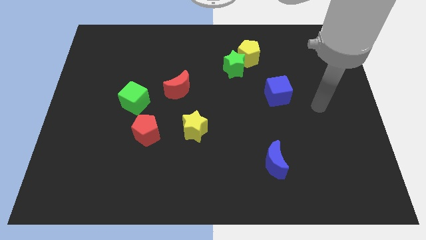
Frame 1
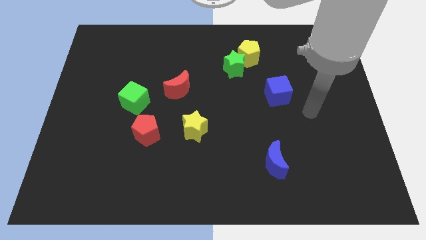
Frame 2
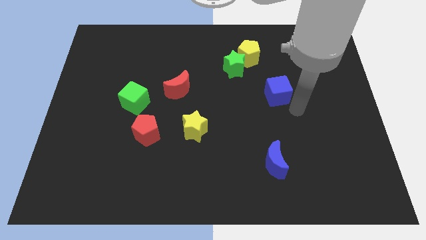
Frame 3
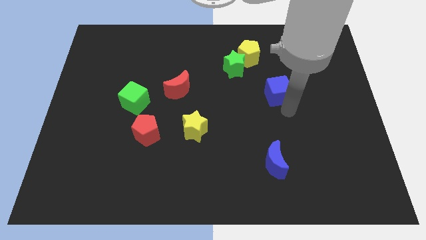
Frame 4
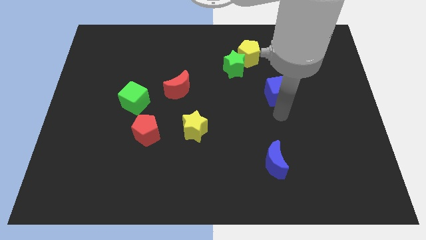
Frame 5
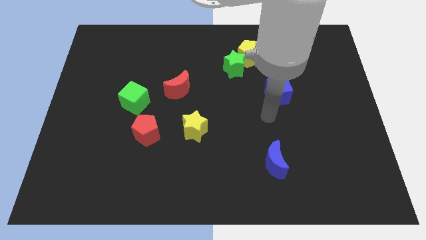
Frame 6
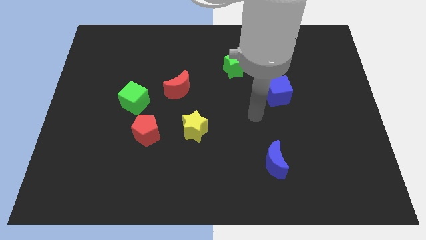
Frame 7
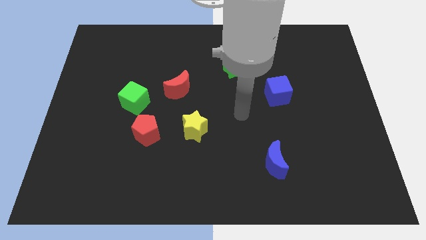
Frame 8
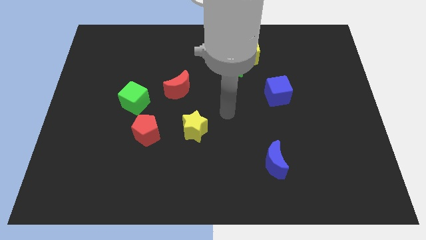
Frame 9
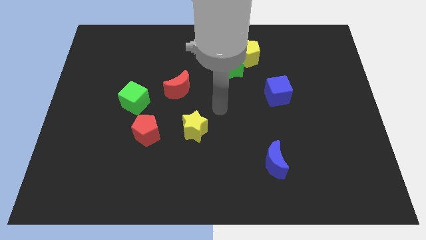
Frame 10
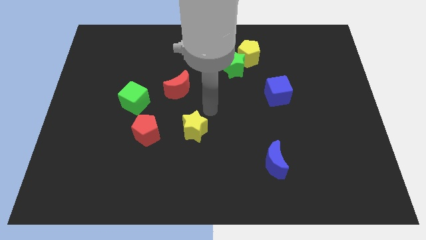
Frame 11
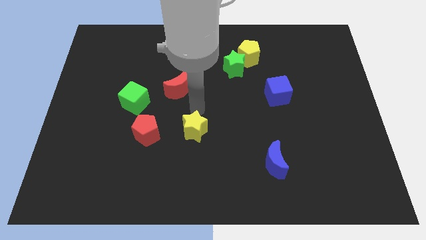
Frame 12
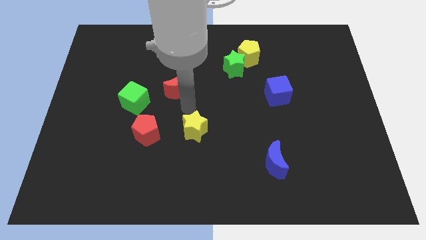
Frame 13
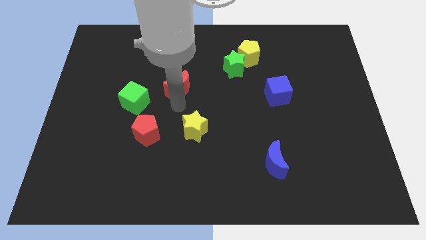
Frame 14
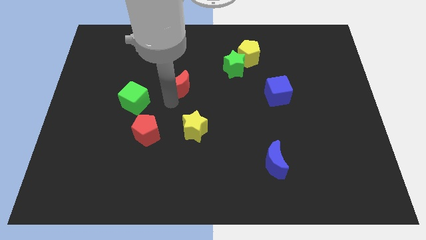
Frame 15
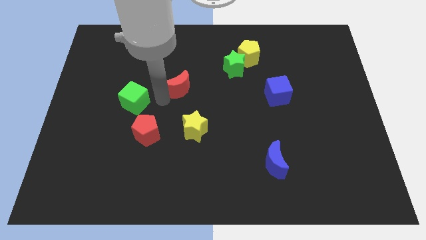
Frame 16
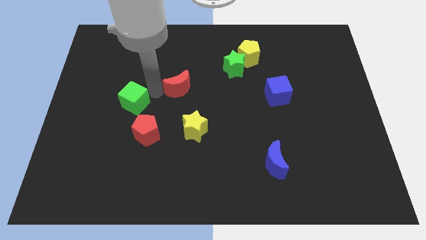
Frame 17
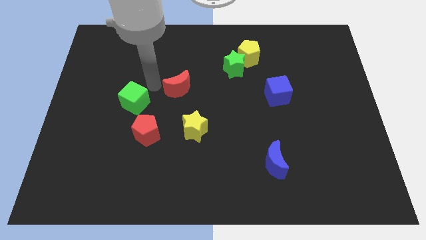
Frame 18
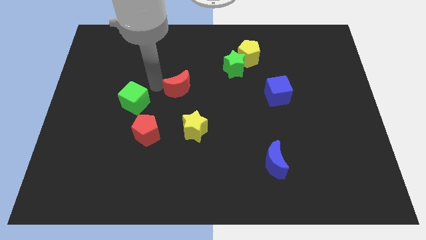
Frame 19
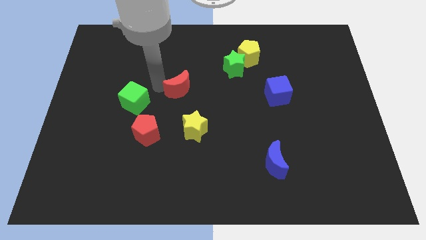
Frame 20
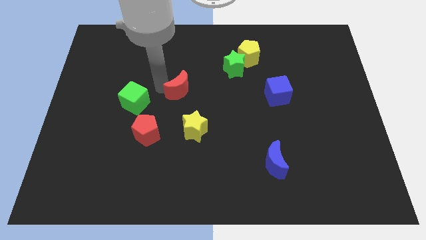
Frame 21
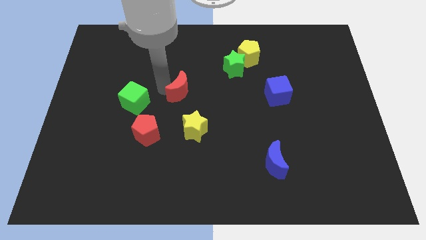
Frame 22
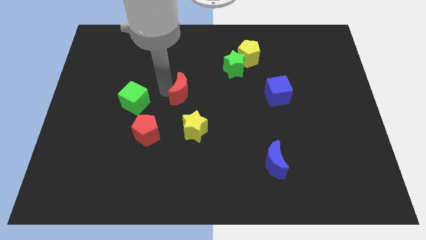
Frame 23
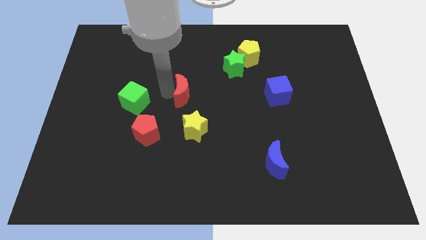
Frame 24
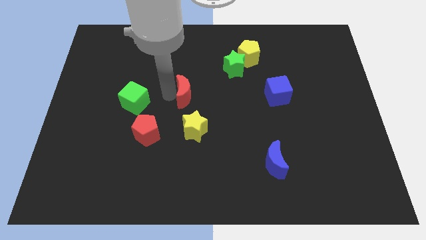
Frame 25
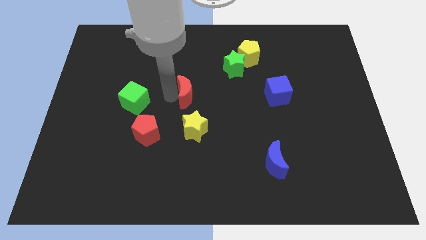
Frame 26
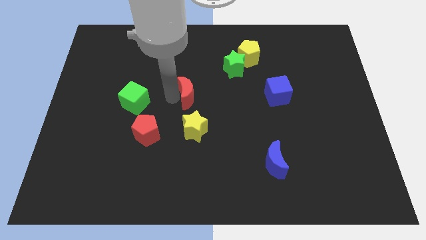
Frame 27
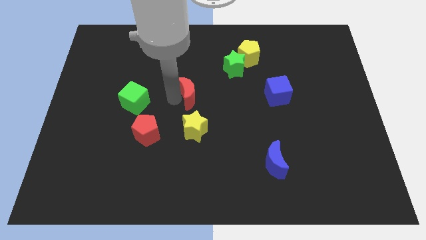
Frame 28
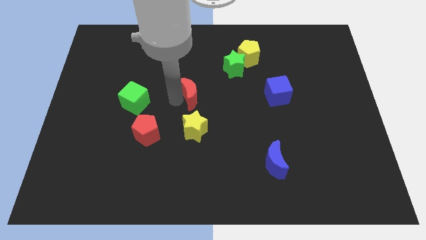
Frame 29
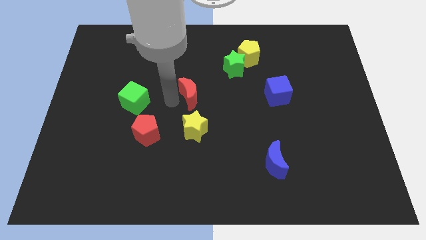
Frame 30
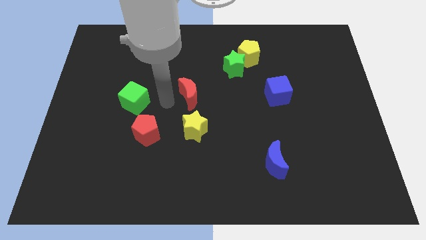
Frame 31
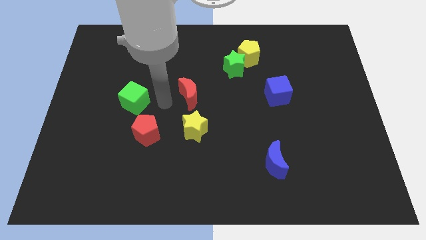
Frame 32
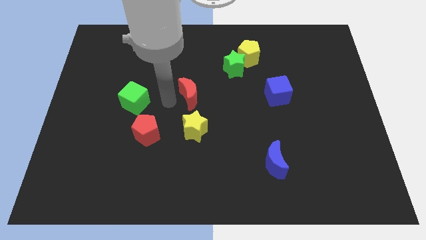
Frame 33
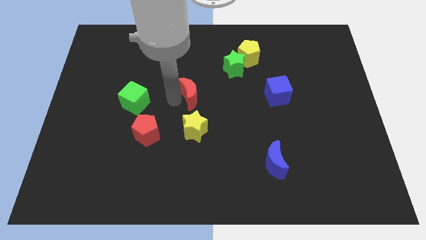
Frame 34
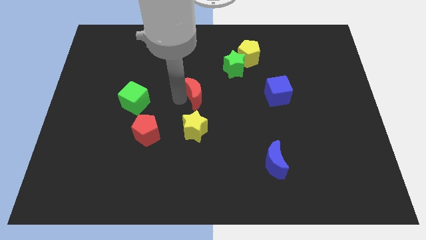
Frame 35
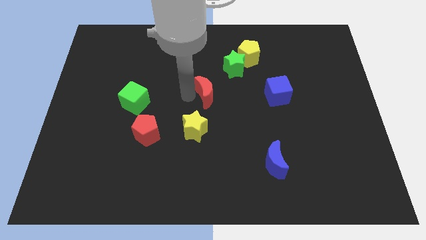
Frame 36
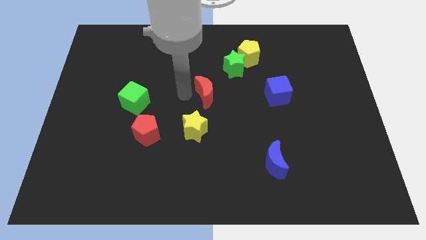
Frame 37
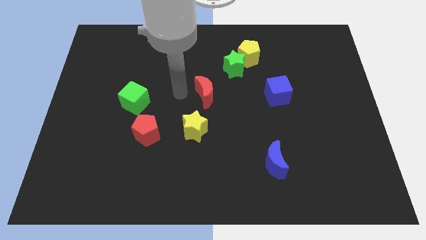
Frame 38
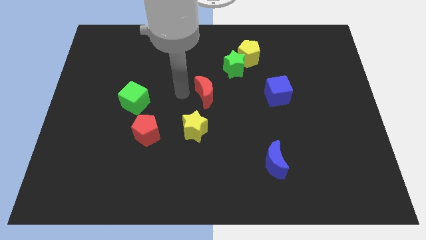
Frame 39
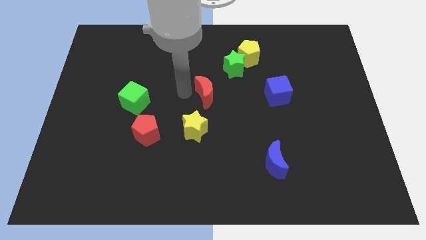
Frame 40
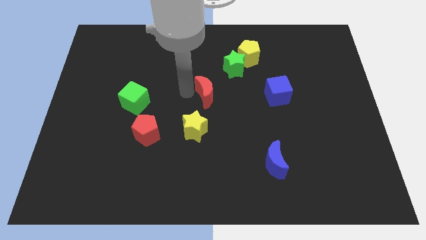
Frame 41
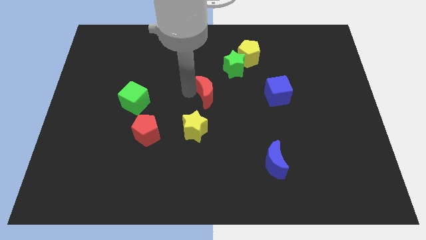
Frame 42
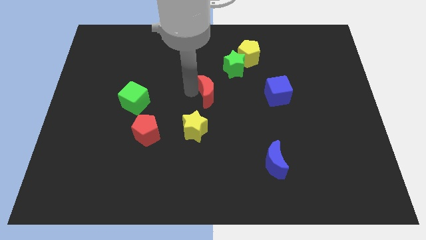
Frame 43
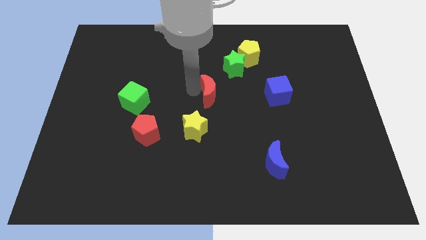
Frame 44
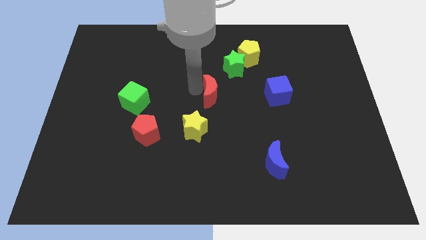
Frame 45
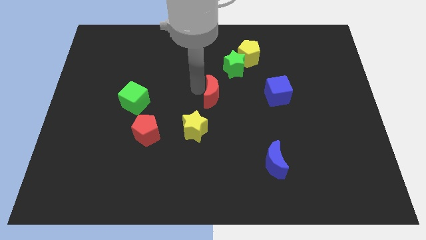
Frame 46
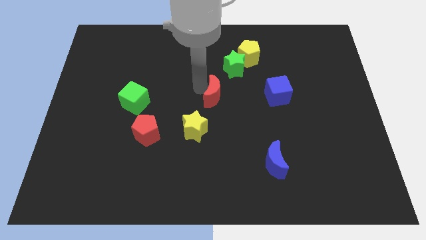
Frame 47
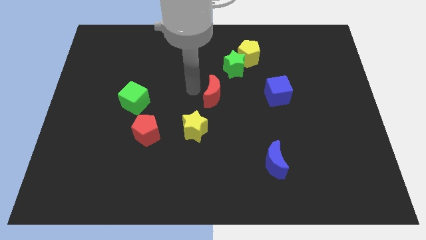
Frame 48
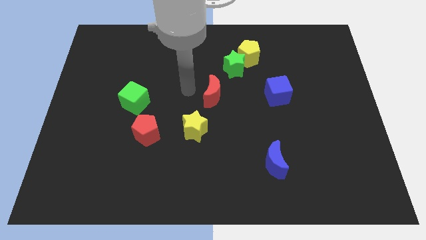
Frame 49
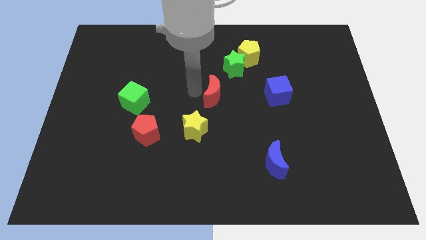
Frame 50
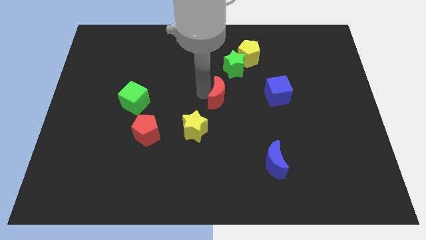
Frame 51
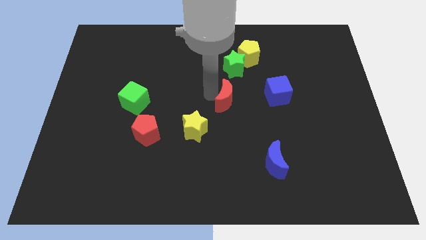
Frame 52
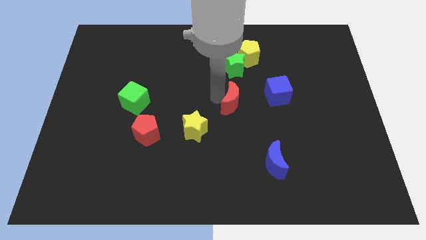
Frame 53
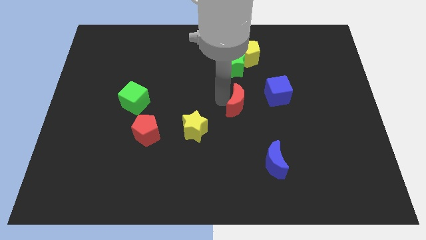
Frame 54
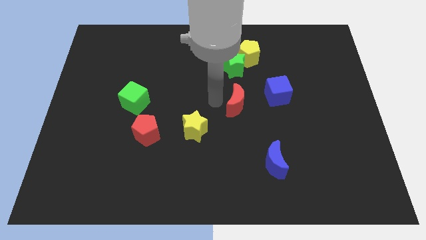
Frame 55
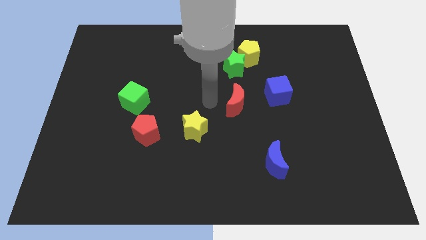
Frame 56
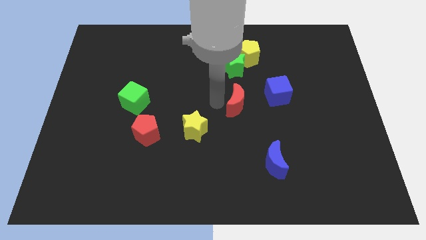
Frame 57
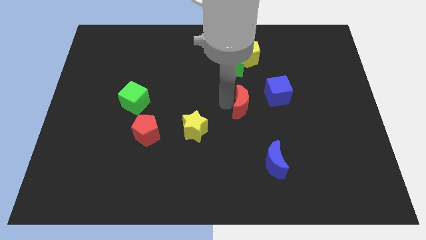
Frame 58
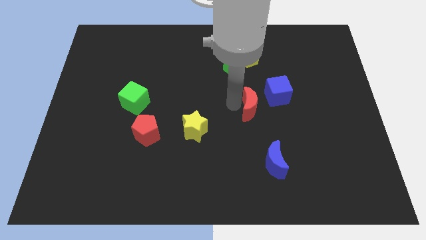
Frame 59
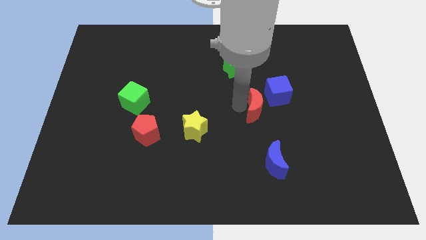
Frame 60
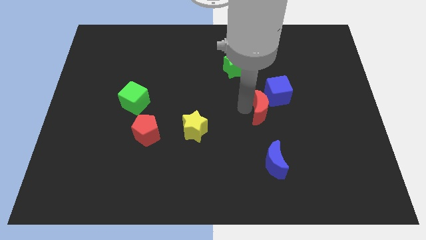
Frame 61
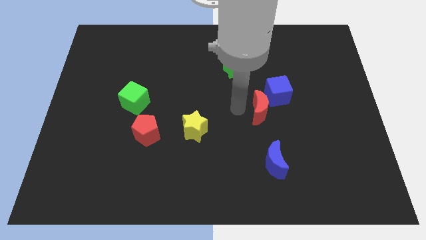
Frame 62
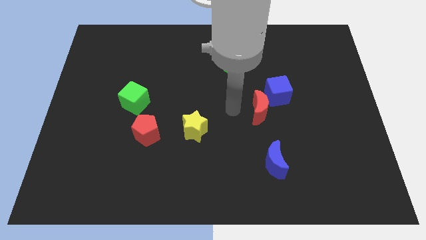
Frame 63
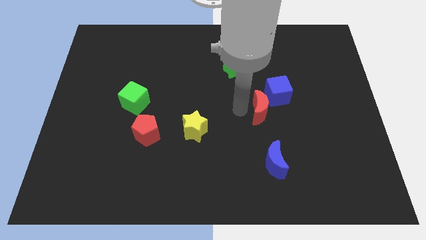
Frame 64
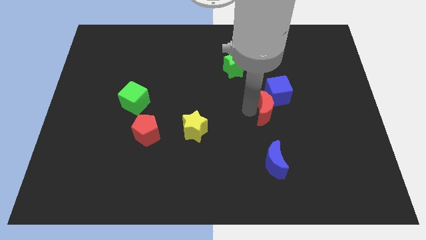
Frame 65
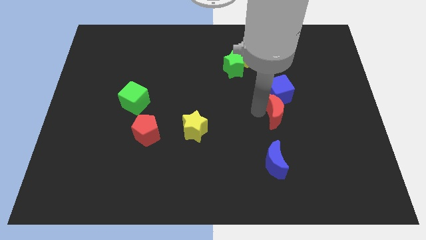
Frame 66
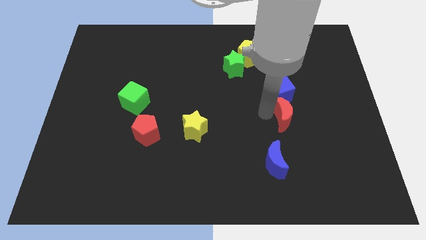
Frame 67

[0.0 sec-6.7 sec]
slide the red moon to the bottom right of the blue cube

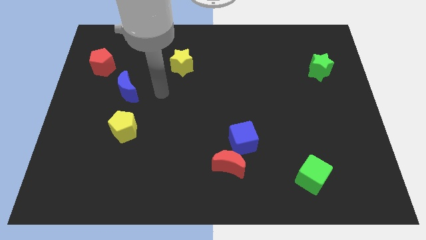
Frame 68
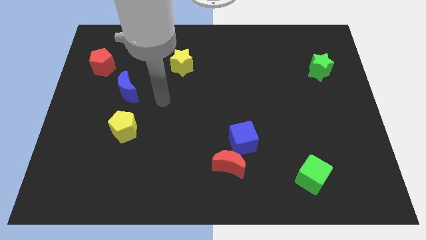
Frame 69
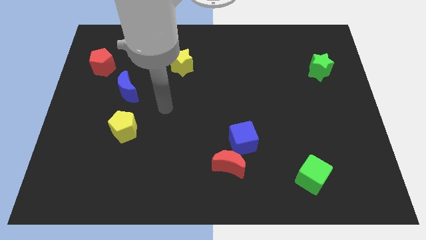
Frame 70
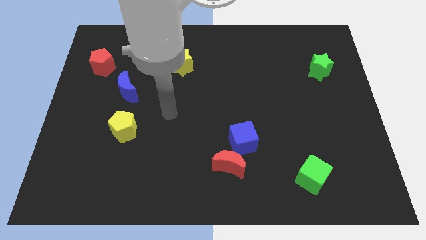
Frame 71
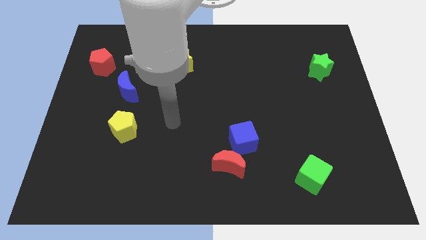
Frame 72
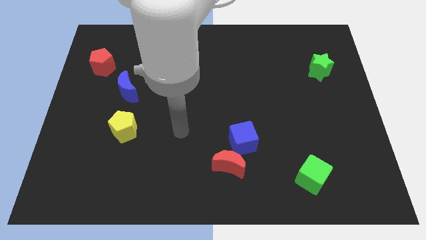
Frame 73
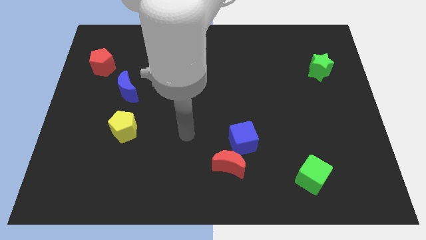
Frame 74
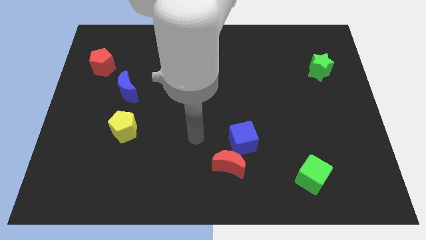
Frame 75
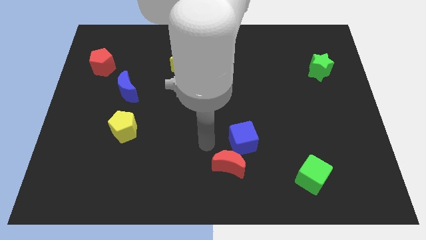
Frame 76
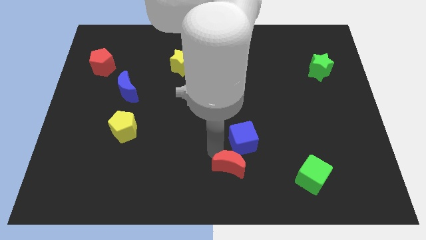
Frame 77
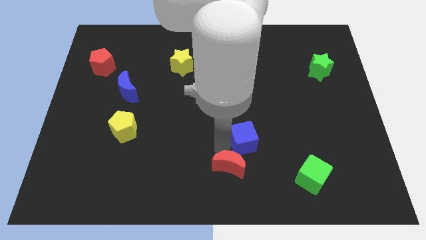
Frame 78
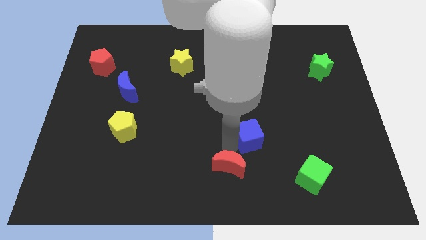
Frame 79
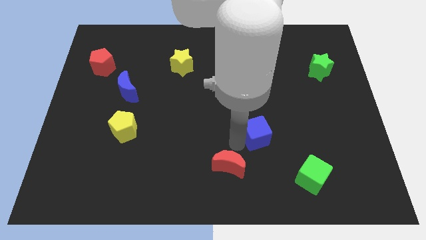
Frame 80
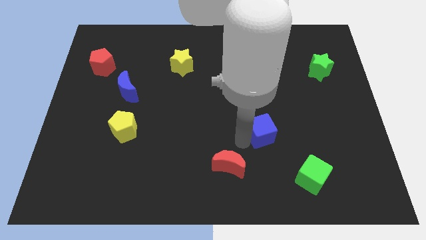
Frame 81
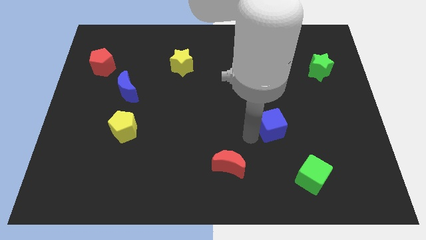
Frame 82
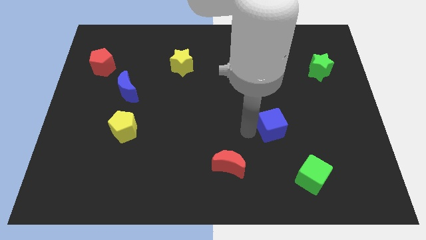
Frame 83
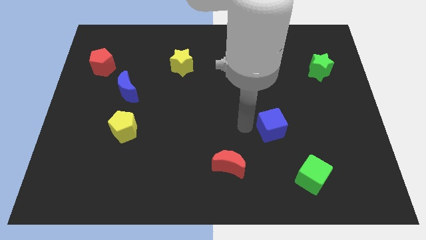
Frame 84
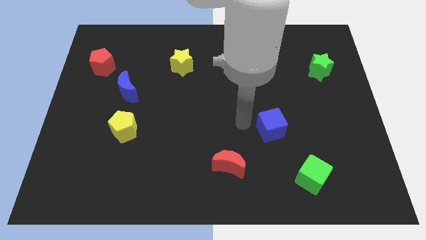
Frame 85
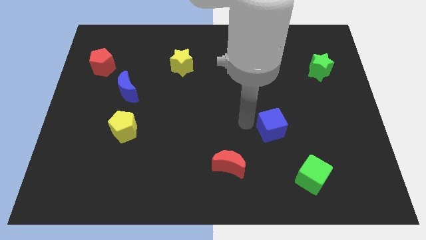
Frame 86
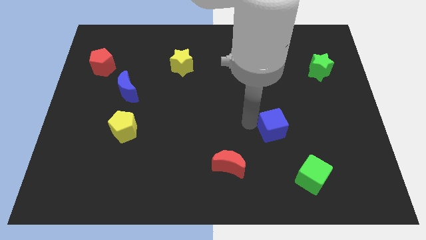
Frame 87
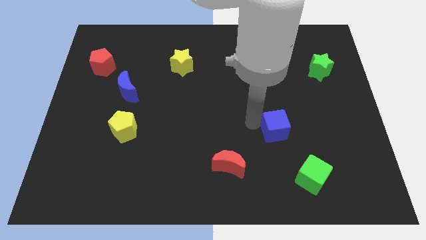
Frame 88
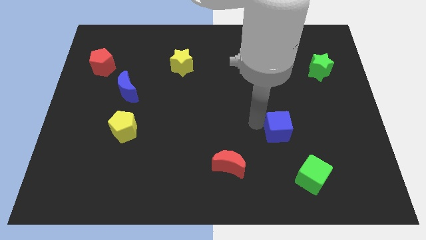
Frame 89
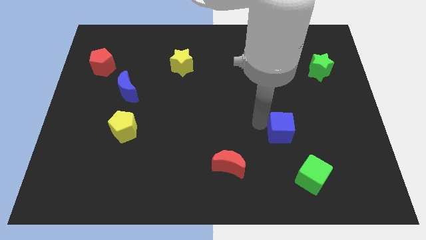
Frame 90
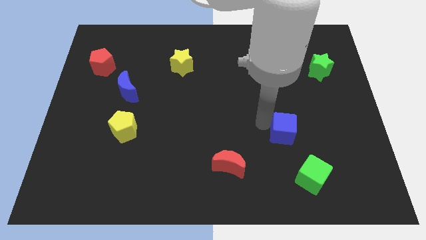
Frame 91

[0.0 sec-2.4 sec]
push the blue cube above the green cube
